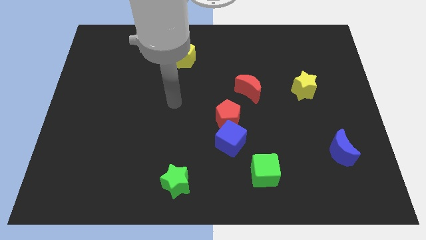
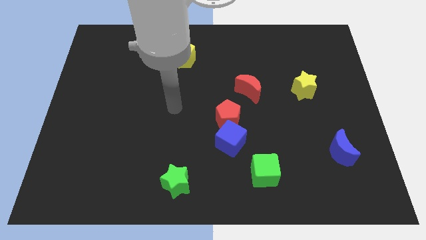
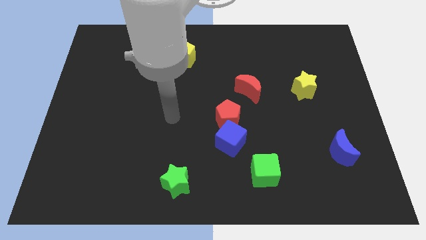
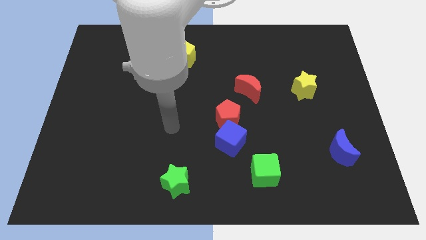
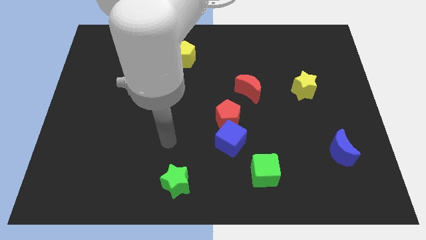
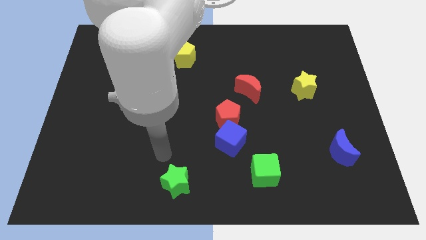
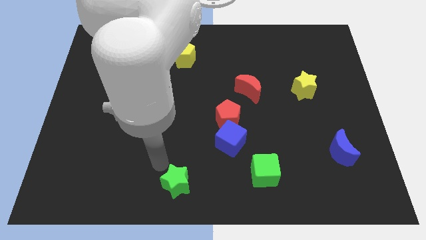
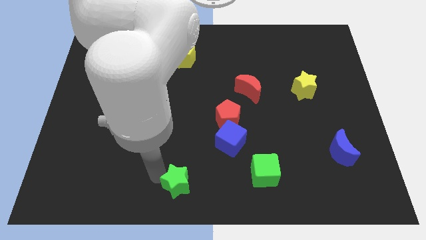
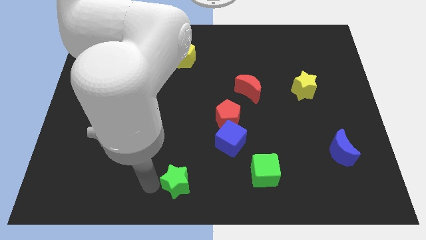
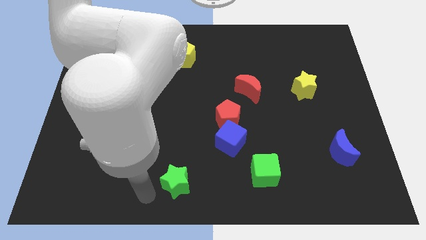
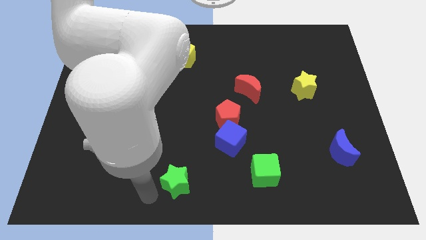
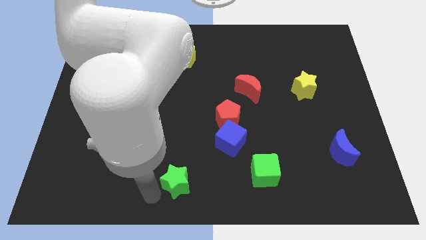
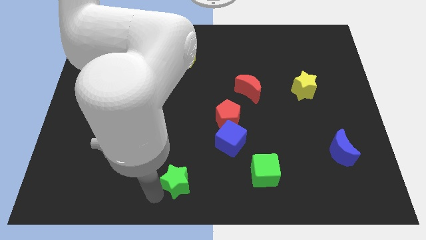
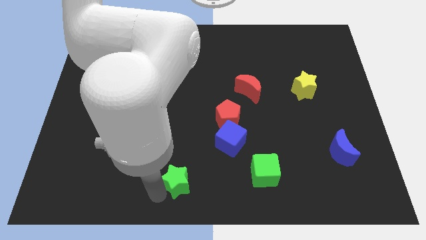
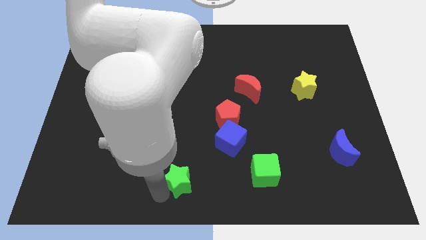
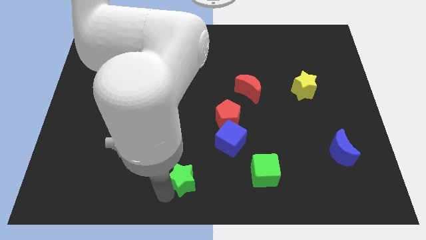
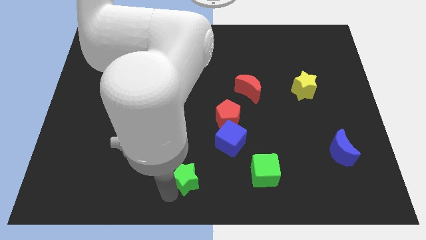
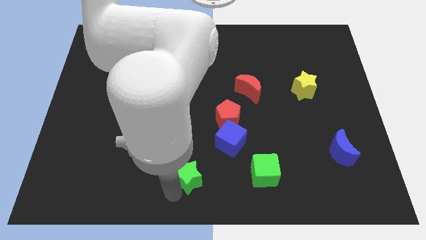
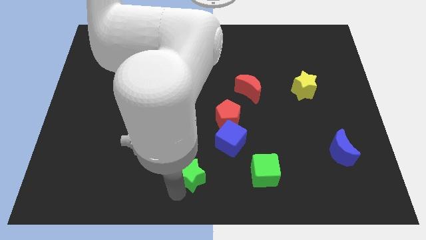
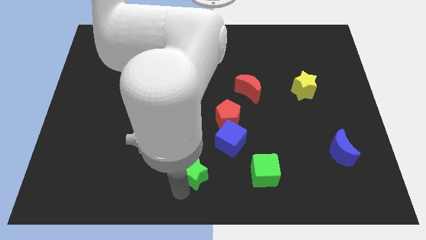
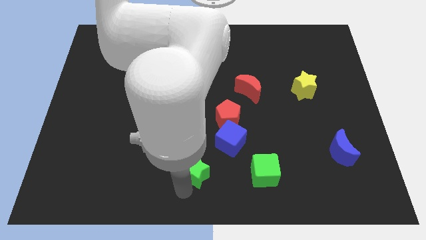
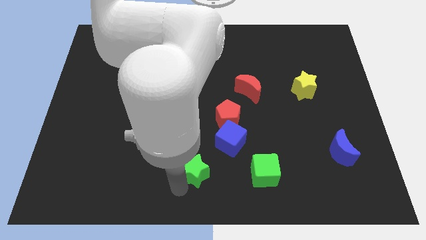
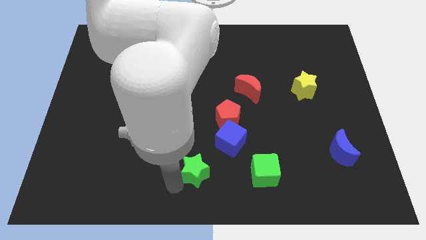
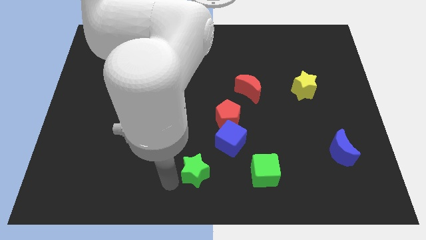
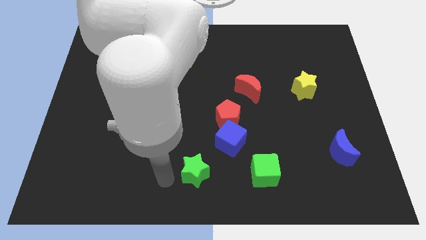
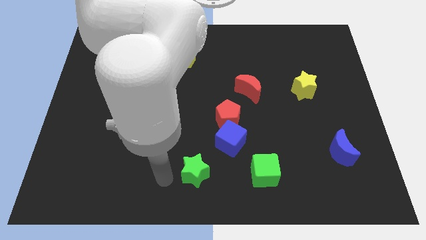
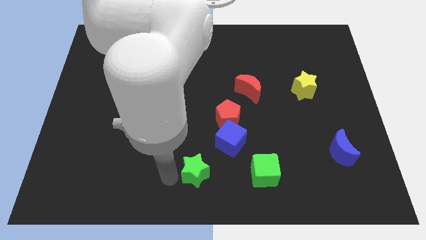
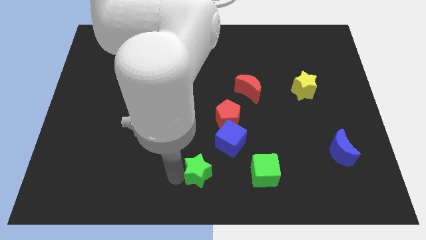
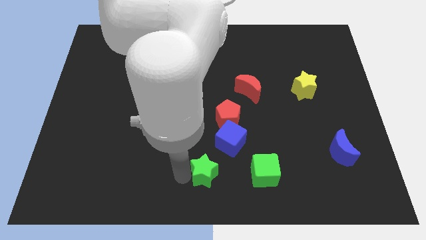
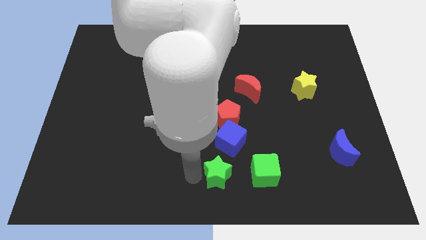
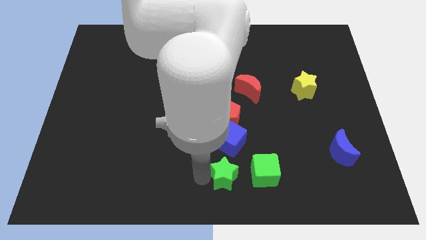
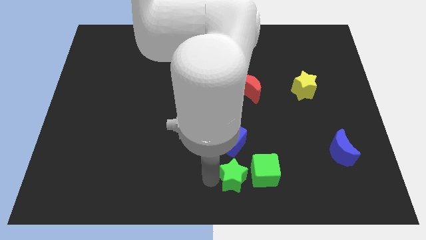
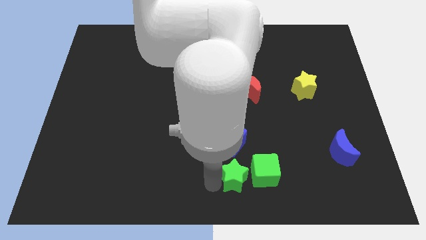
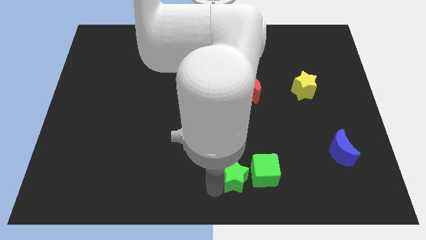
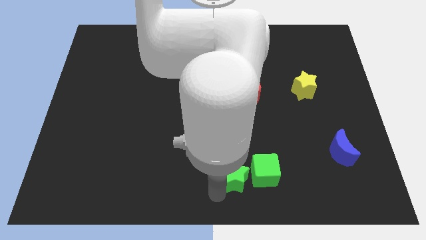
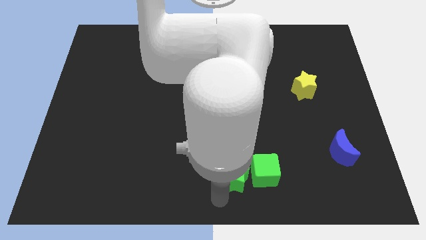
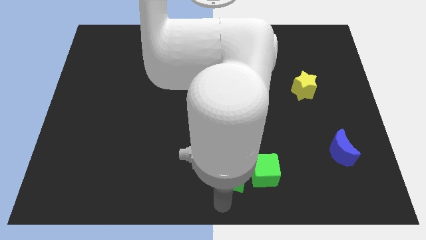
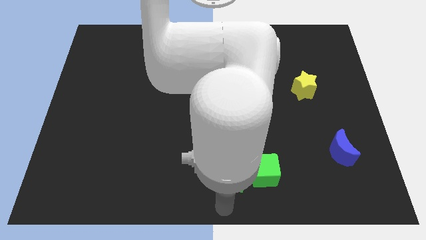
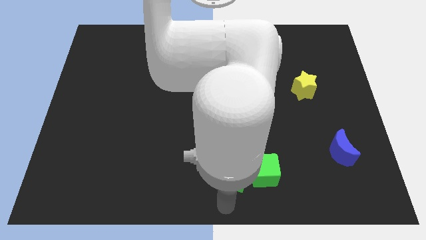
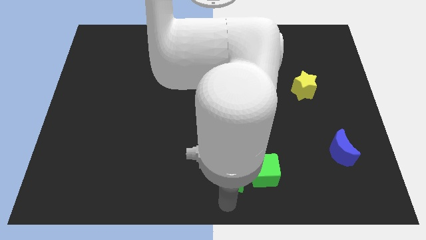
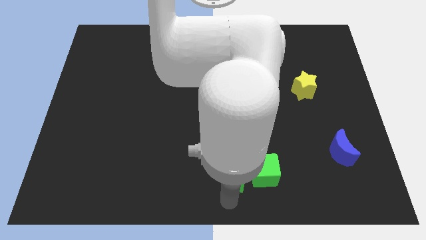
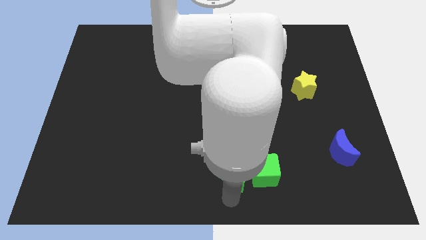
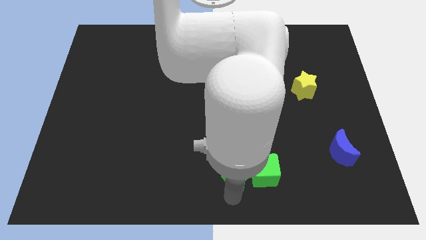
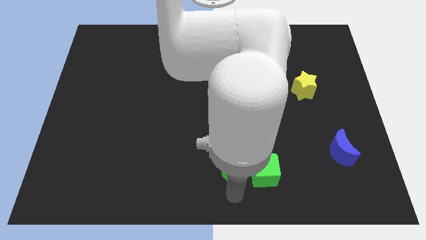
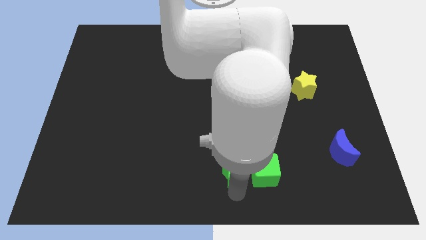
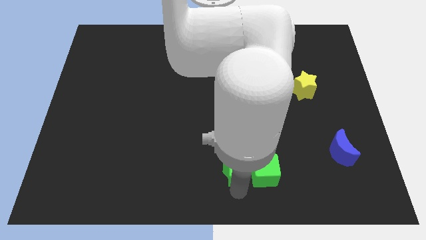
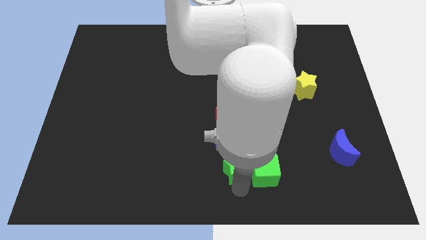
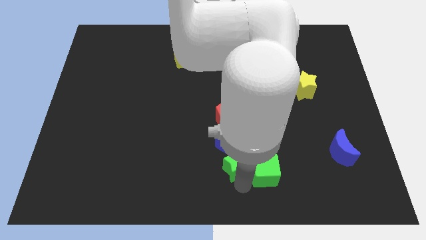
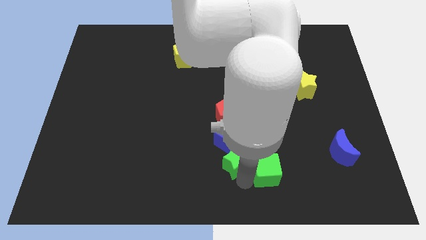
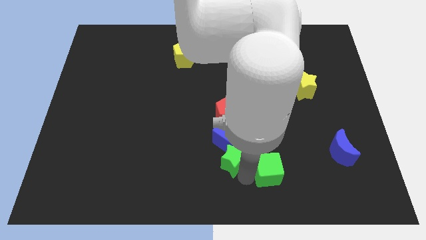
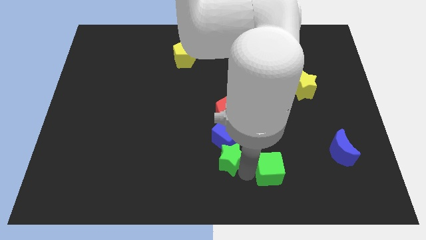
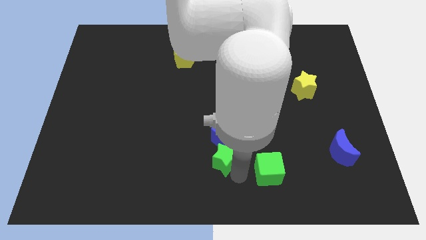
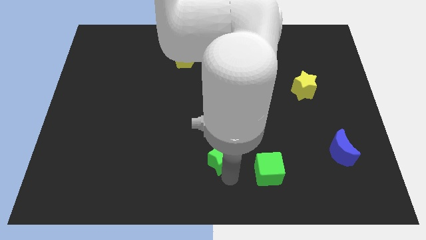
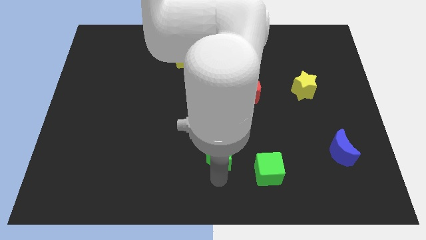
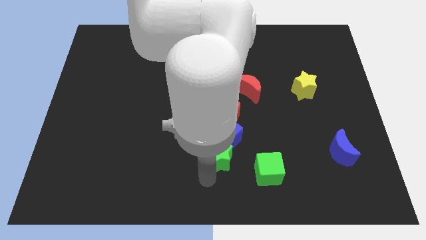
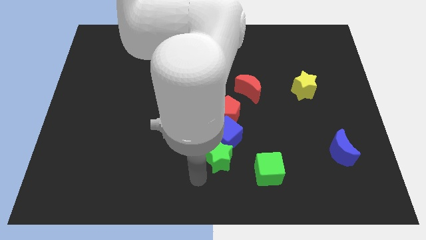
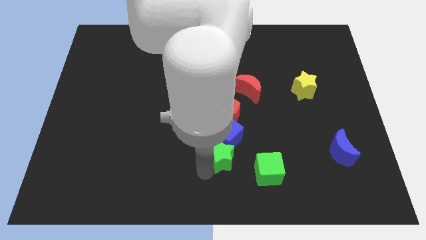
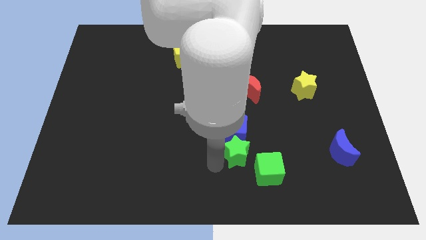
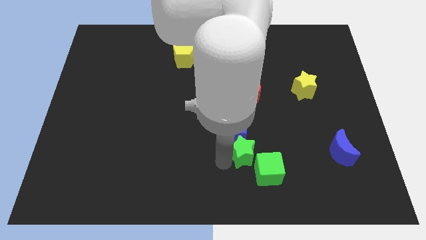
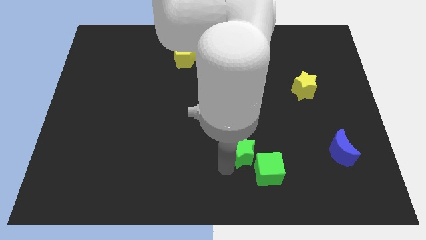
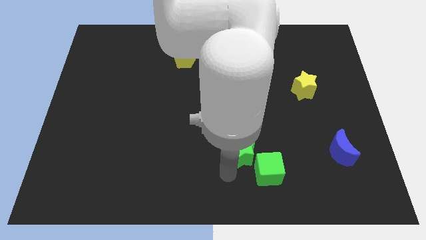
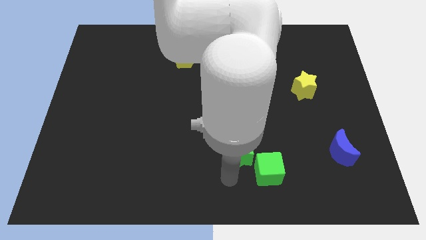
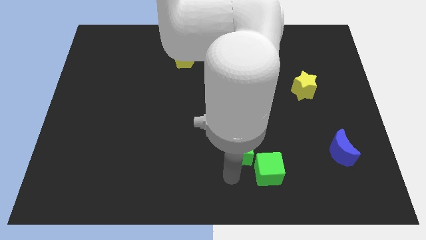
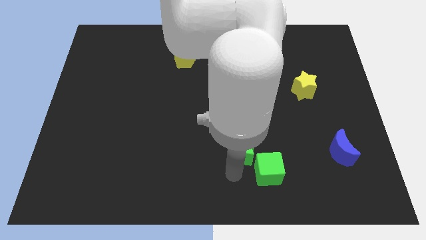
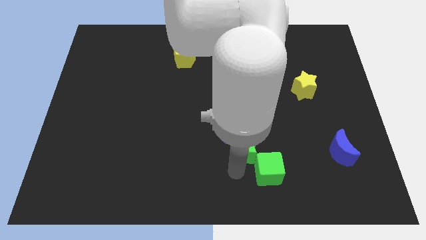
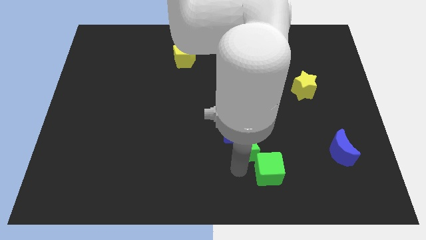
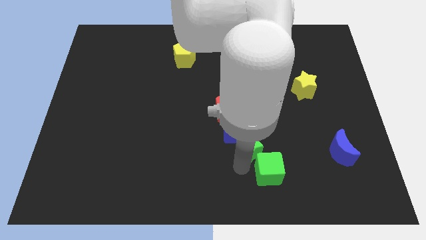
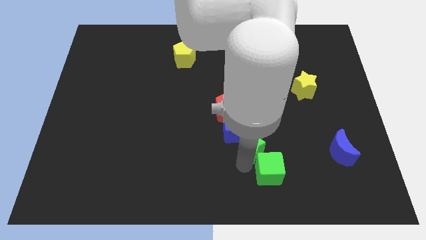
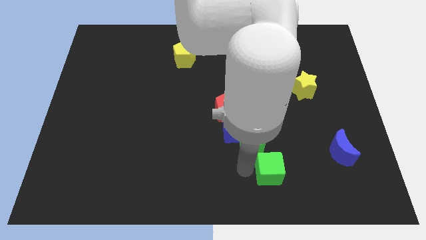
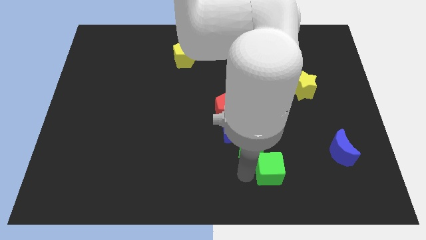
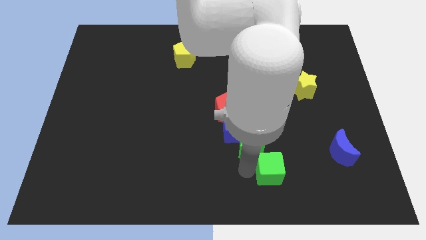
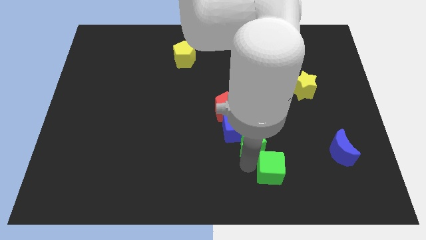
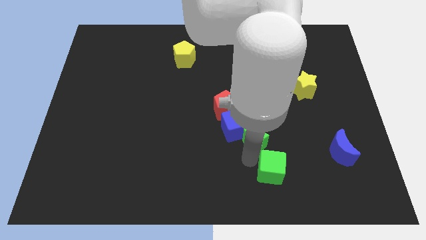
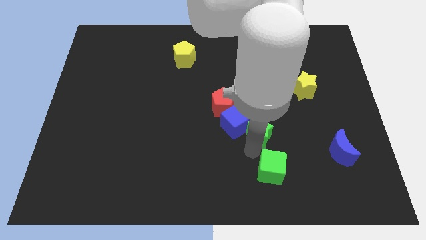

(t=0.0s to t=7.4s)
push the green star upwards and right diagonally

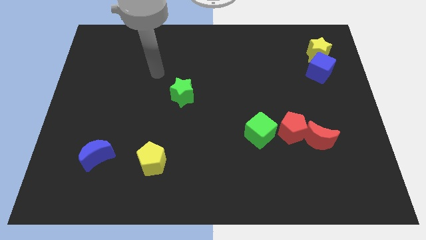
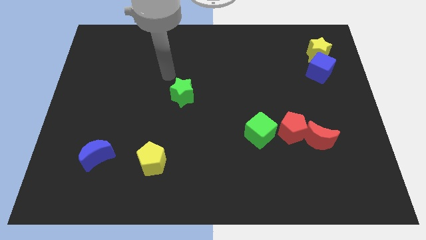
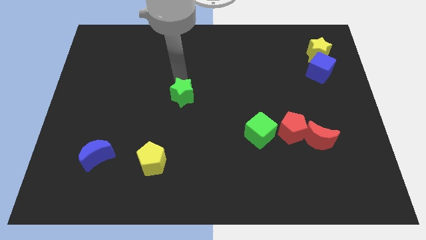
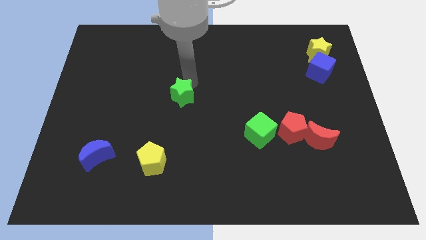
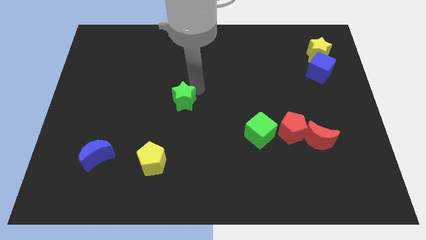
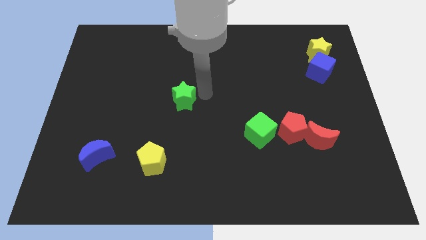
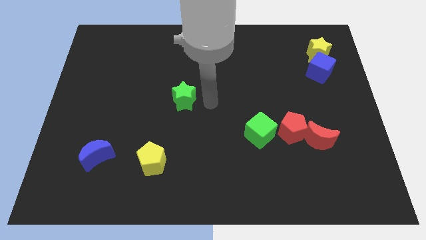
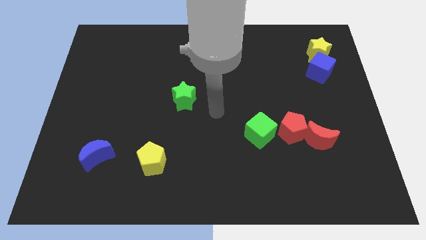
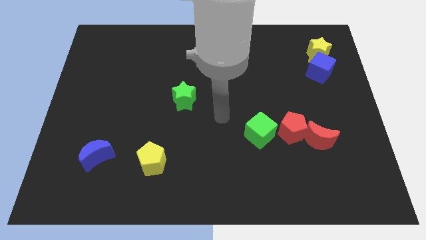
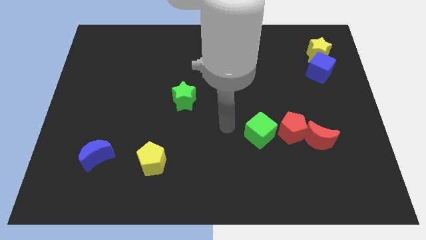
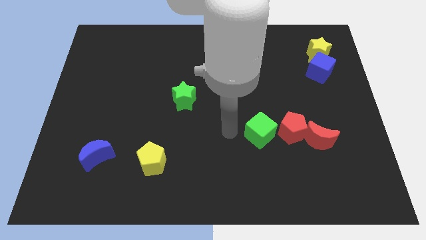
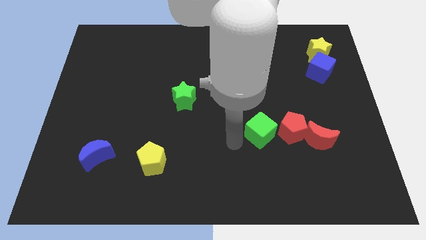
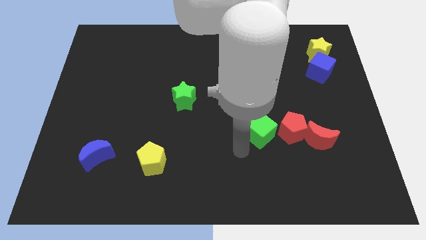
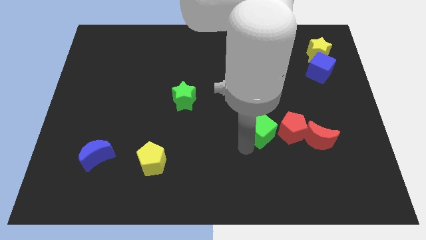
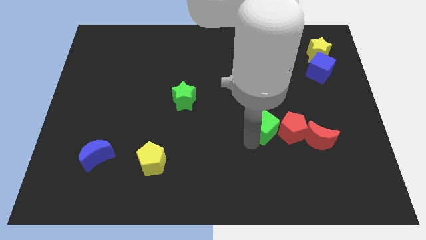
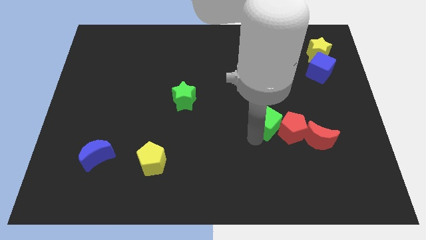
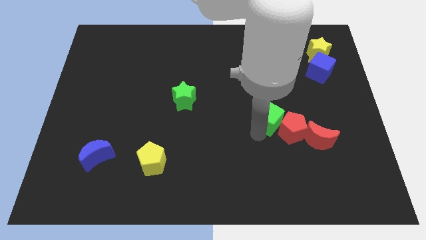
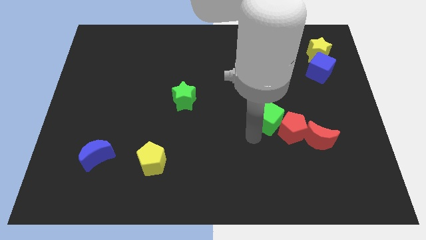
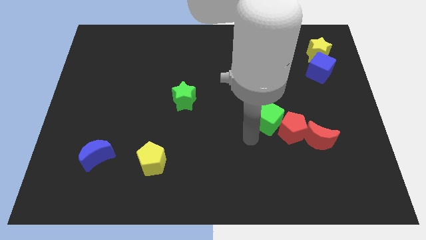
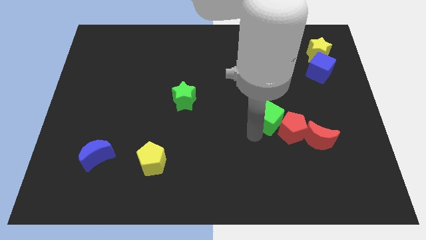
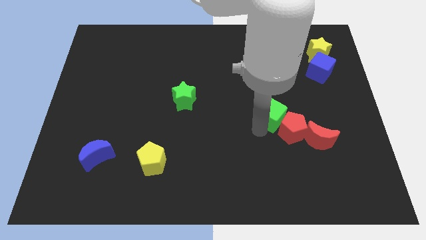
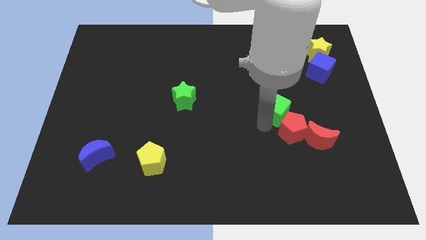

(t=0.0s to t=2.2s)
slightly move the green cube up and then to the right
